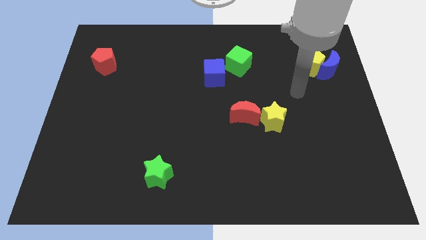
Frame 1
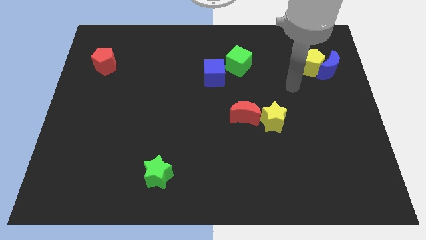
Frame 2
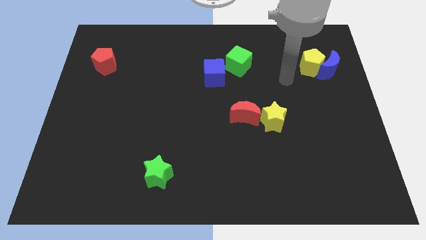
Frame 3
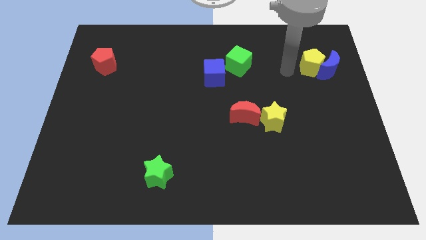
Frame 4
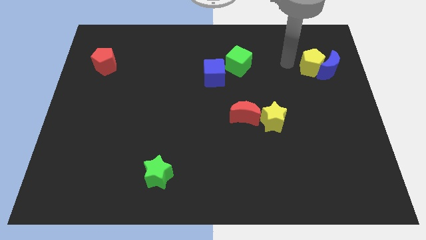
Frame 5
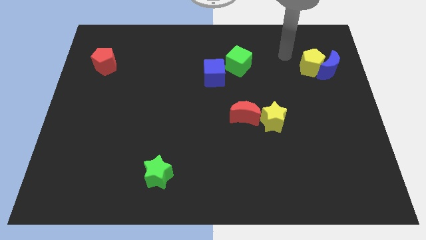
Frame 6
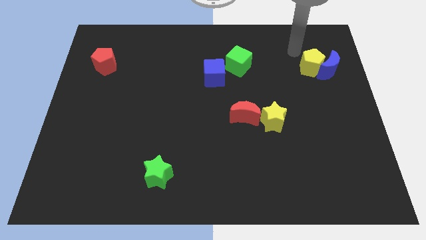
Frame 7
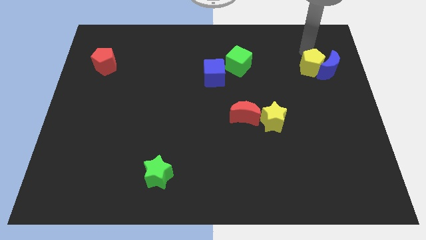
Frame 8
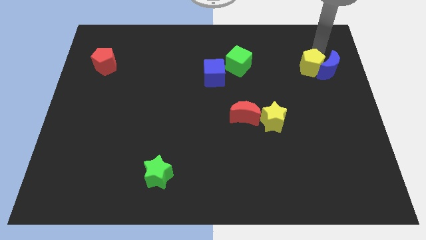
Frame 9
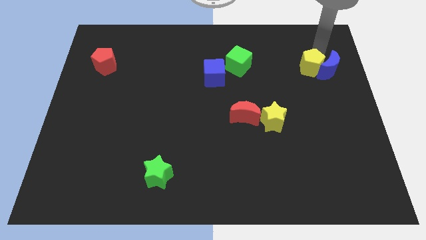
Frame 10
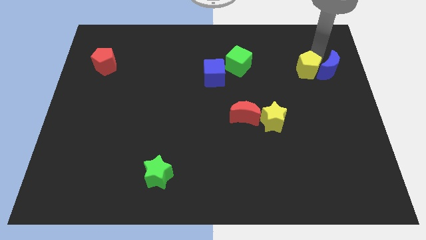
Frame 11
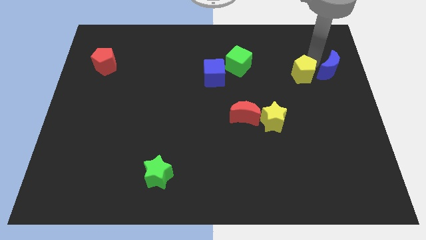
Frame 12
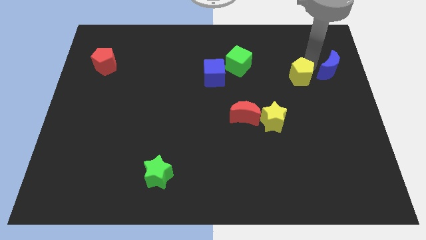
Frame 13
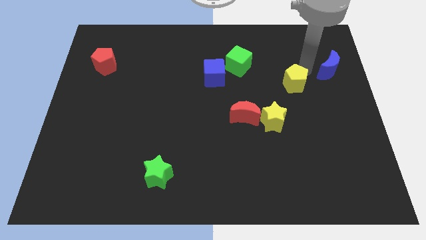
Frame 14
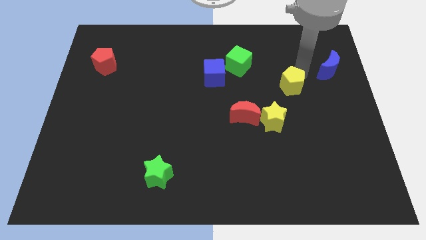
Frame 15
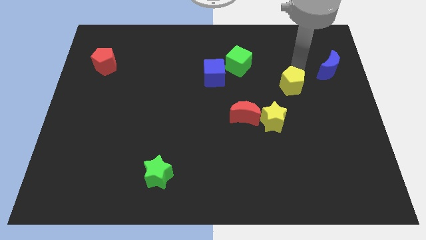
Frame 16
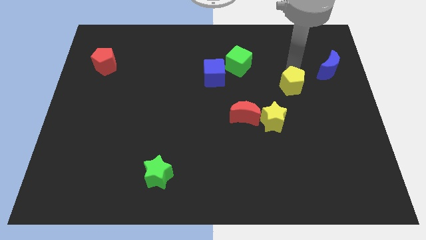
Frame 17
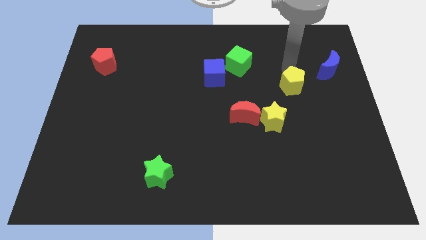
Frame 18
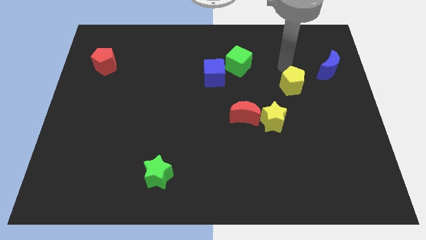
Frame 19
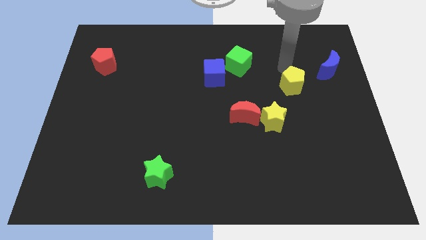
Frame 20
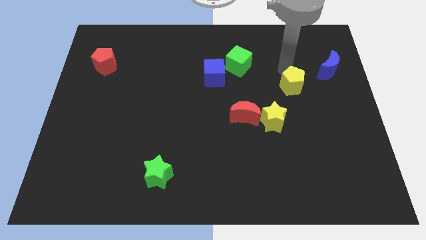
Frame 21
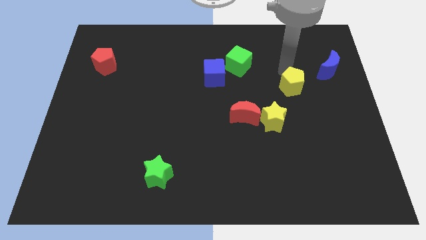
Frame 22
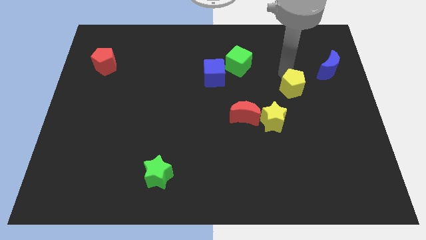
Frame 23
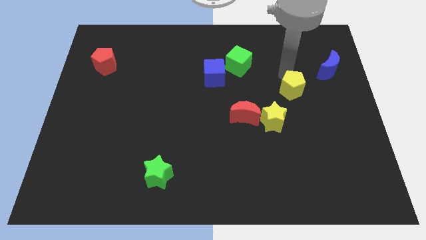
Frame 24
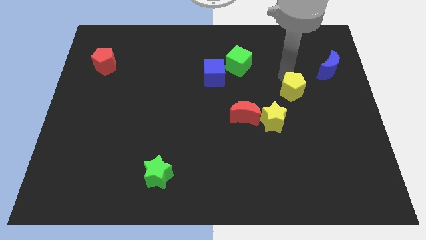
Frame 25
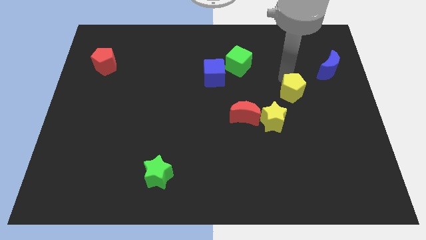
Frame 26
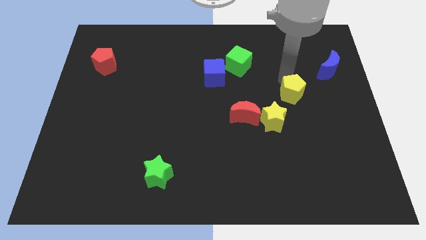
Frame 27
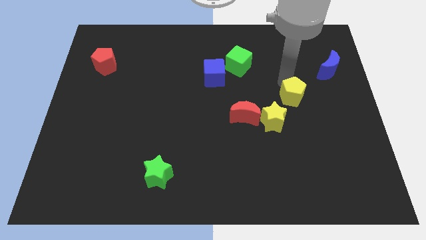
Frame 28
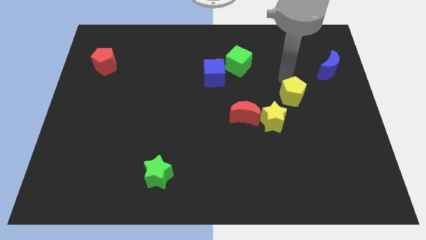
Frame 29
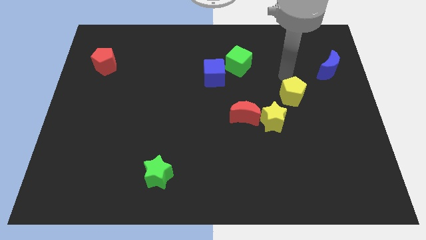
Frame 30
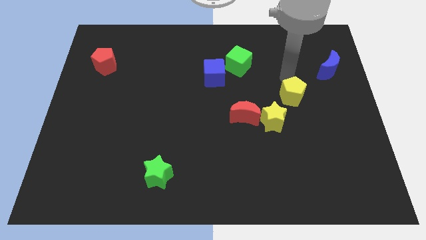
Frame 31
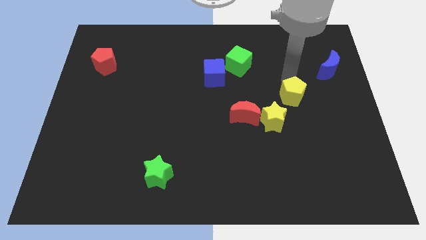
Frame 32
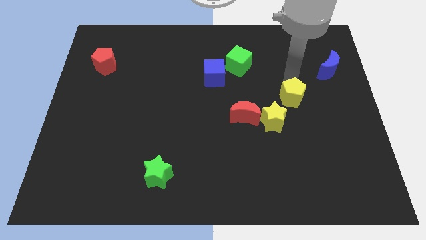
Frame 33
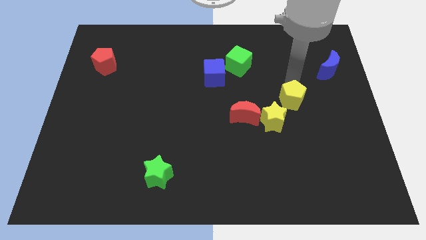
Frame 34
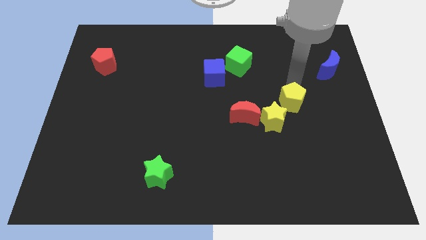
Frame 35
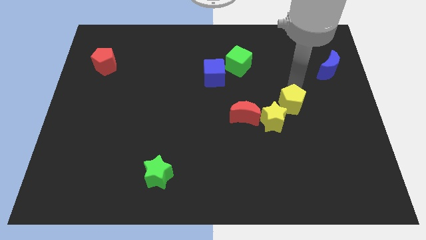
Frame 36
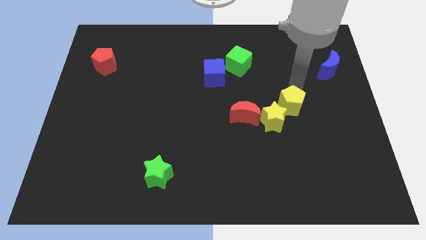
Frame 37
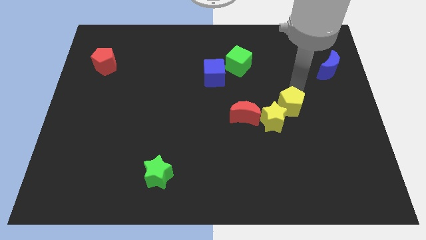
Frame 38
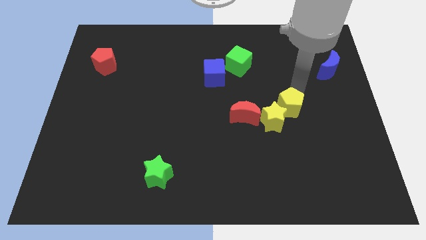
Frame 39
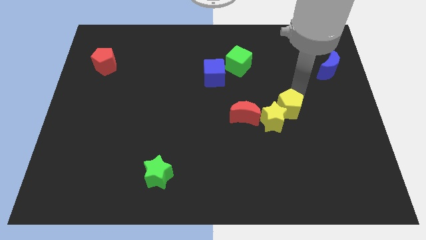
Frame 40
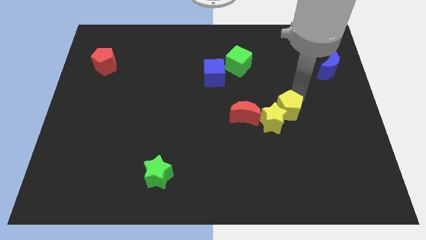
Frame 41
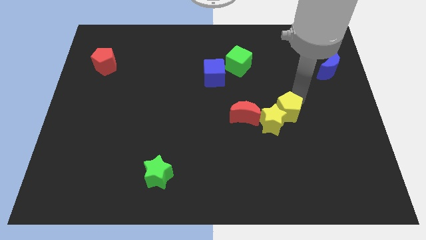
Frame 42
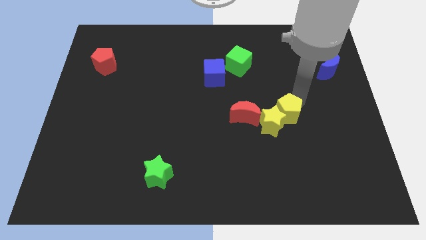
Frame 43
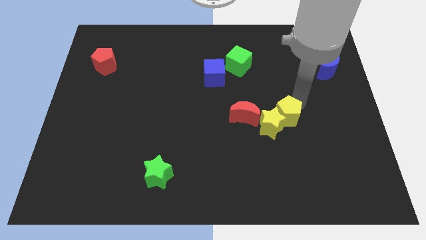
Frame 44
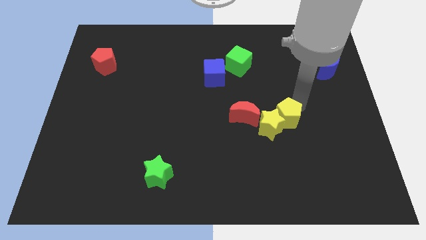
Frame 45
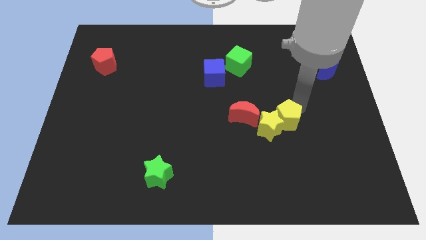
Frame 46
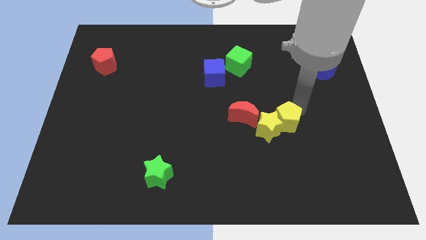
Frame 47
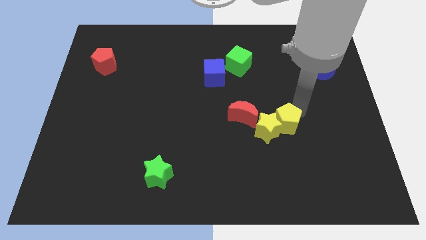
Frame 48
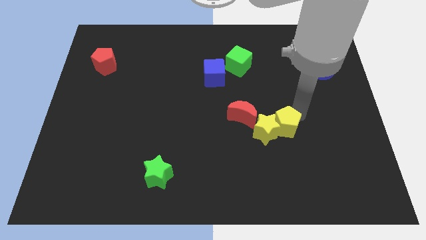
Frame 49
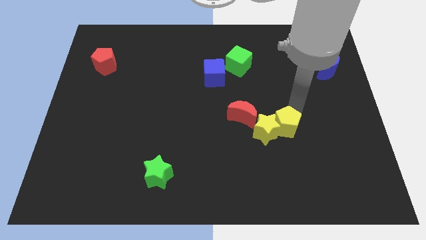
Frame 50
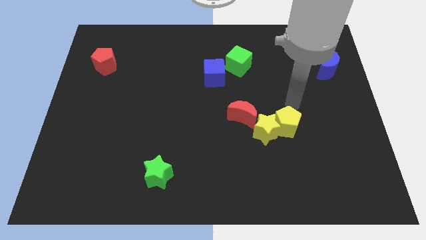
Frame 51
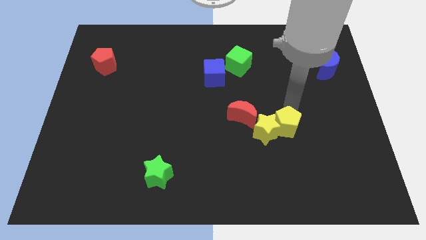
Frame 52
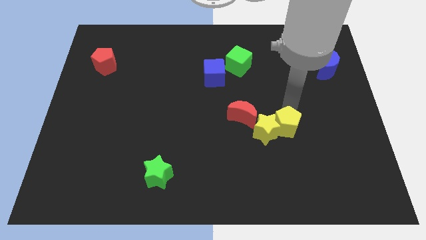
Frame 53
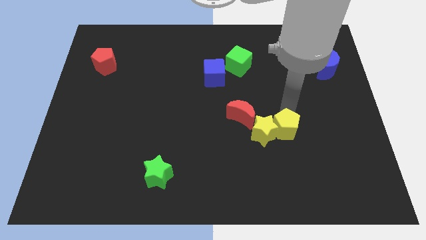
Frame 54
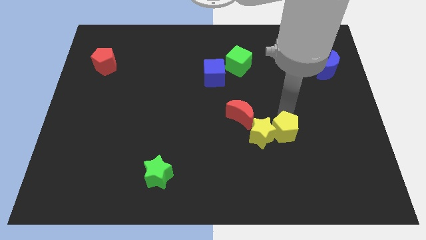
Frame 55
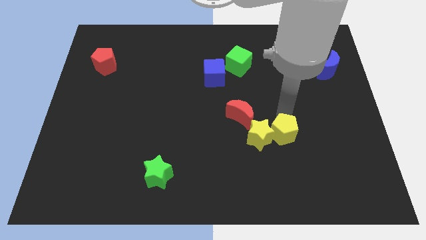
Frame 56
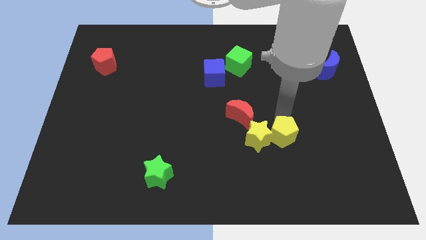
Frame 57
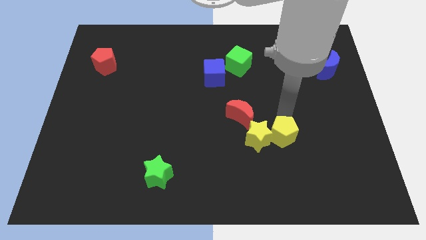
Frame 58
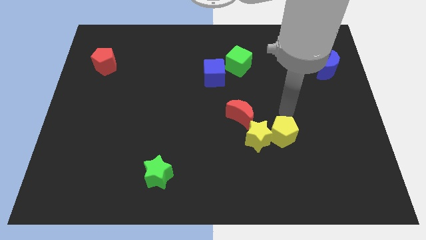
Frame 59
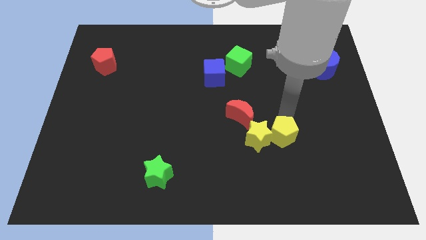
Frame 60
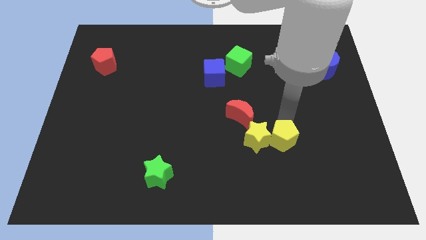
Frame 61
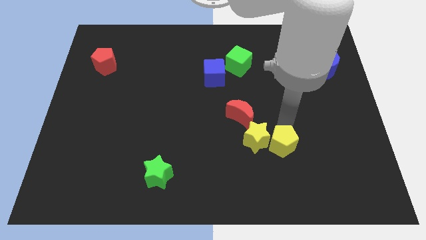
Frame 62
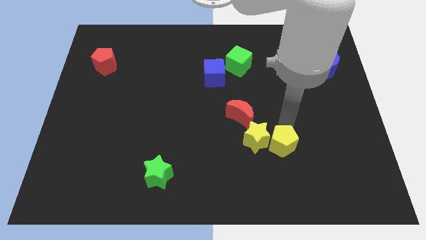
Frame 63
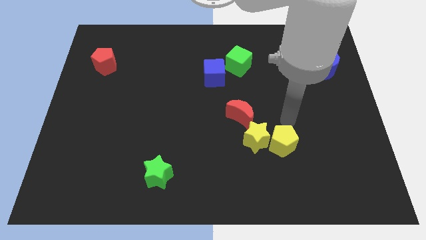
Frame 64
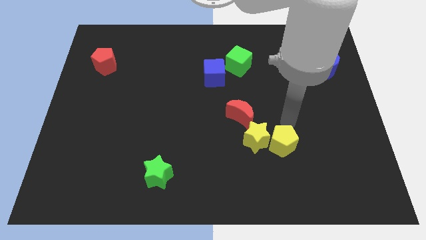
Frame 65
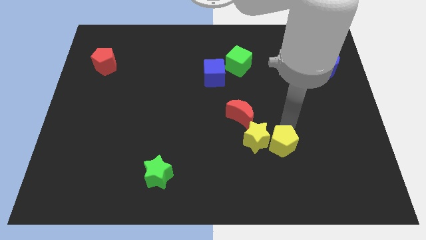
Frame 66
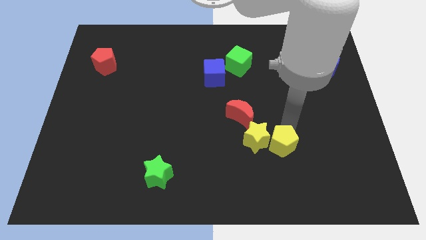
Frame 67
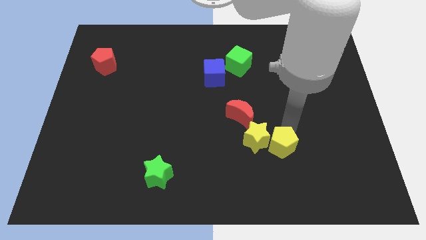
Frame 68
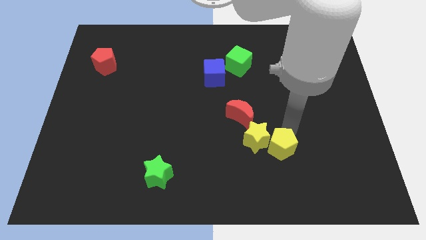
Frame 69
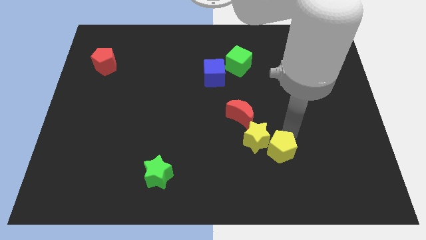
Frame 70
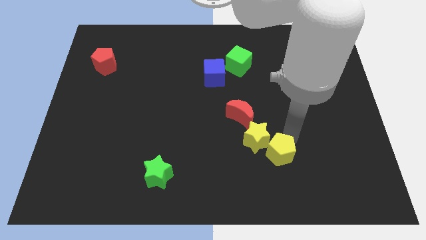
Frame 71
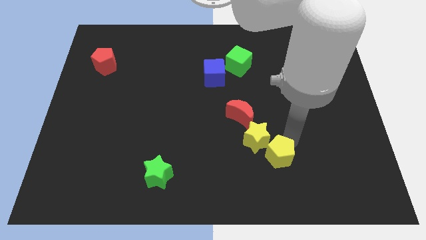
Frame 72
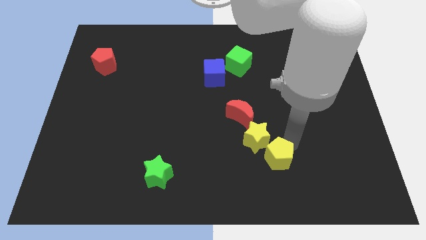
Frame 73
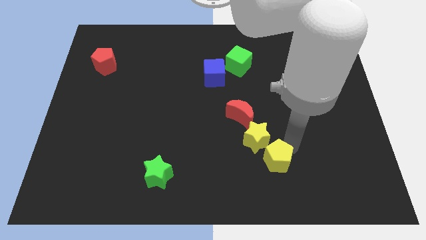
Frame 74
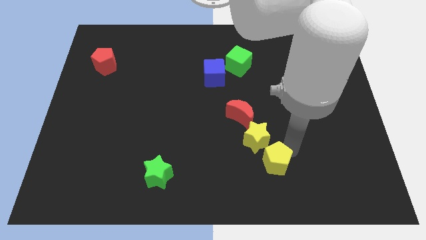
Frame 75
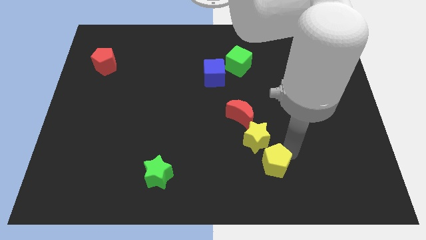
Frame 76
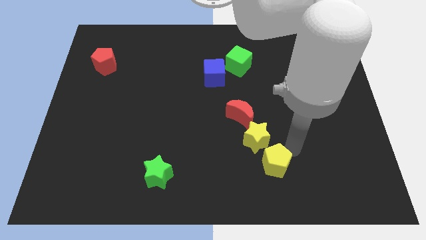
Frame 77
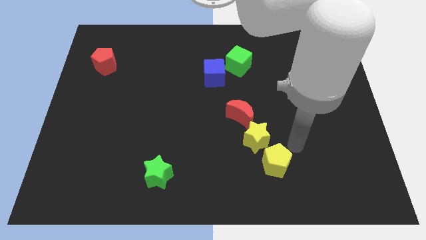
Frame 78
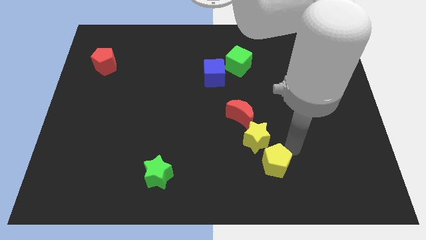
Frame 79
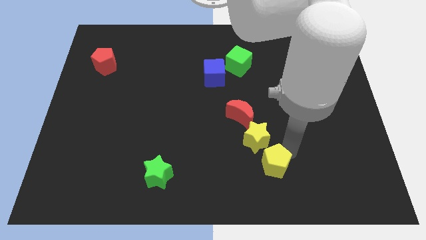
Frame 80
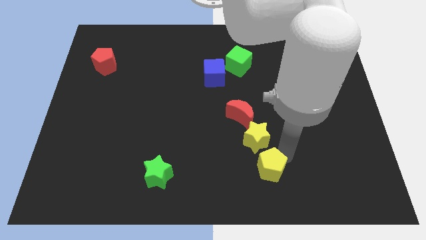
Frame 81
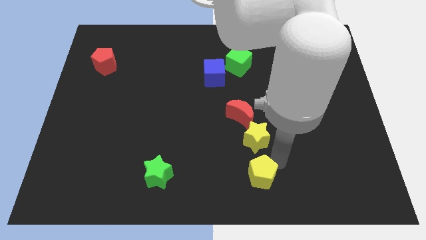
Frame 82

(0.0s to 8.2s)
put the yellow pentagon to the bottom side
